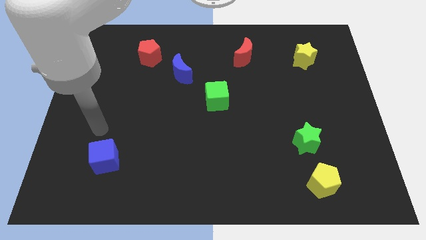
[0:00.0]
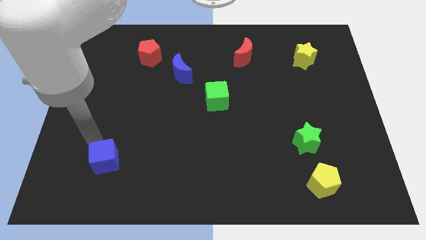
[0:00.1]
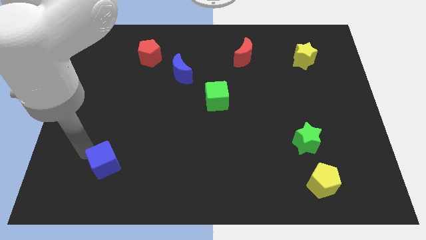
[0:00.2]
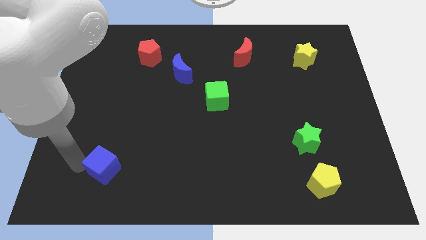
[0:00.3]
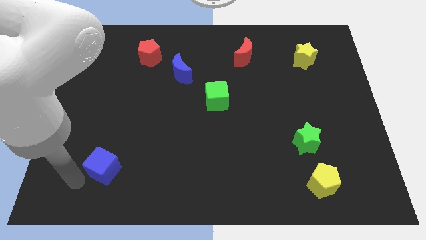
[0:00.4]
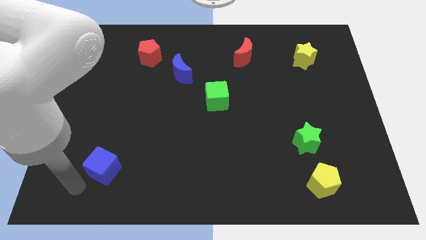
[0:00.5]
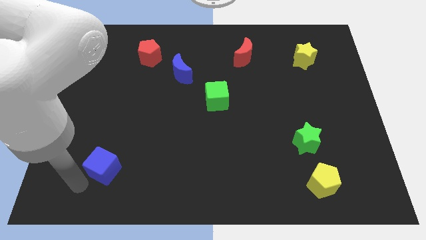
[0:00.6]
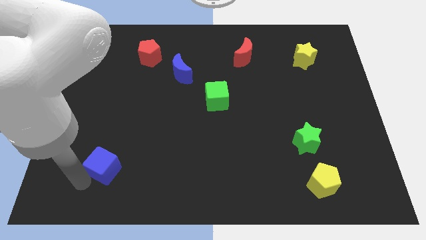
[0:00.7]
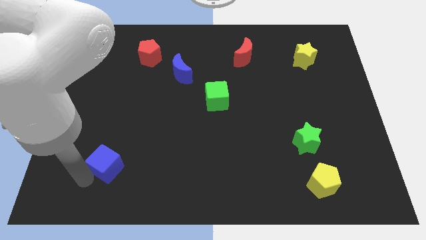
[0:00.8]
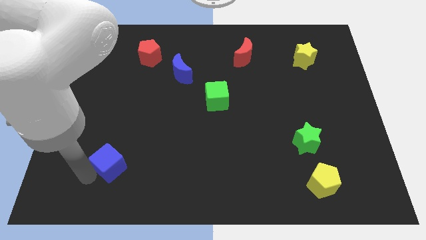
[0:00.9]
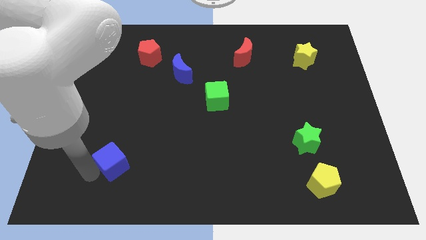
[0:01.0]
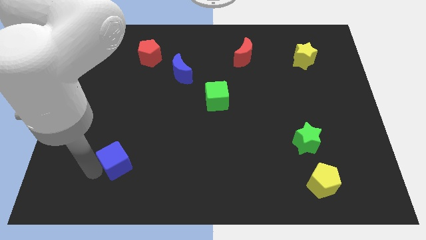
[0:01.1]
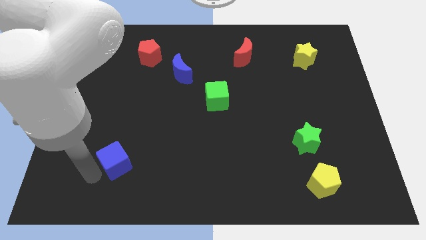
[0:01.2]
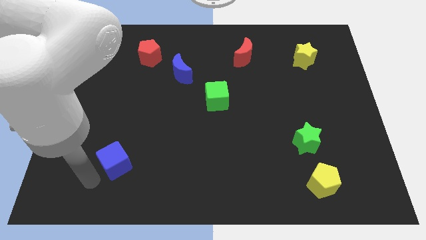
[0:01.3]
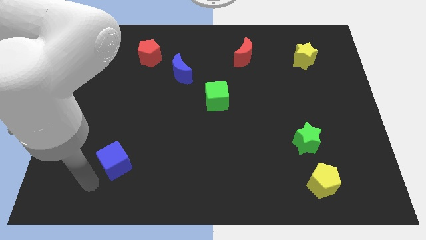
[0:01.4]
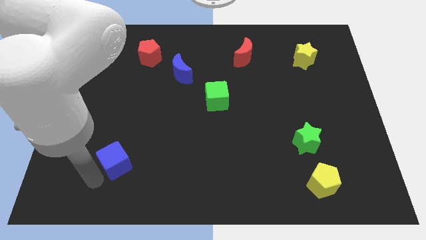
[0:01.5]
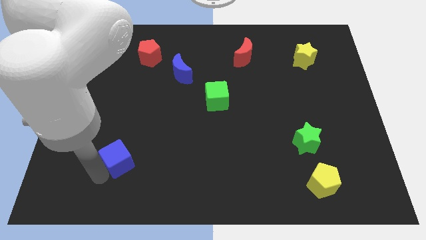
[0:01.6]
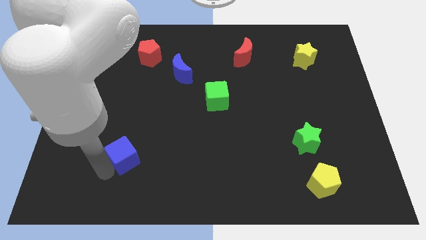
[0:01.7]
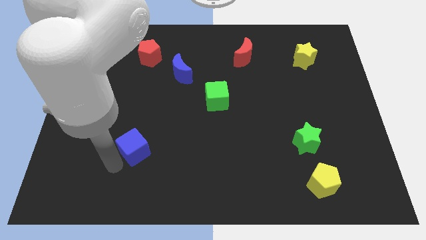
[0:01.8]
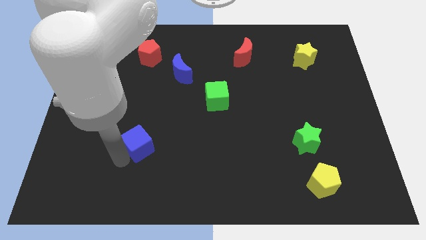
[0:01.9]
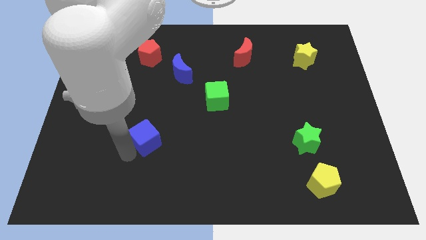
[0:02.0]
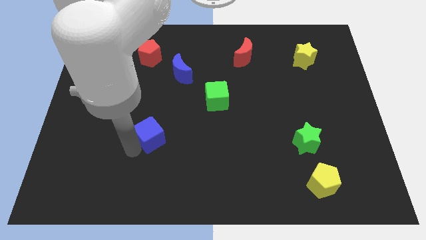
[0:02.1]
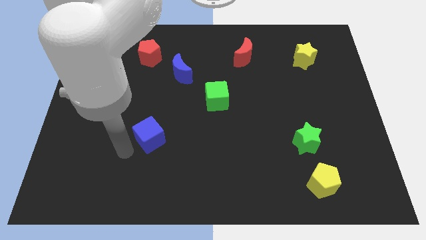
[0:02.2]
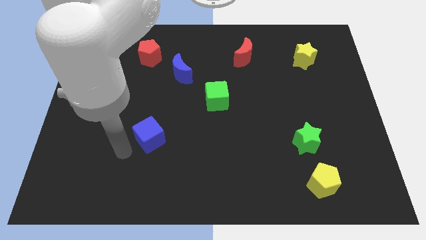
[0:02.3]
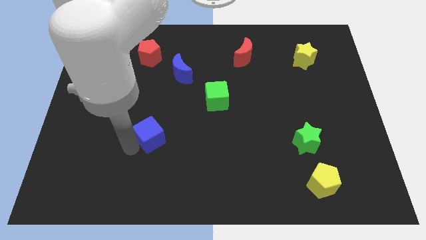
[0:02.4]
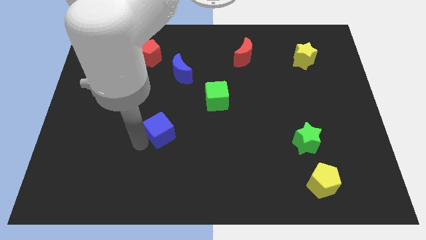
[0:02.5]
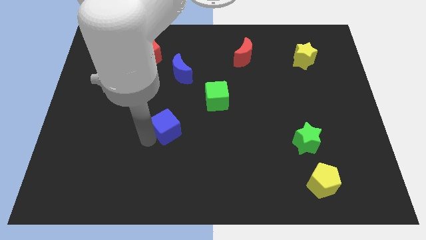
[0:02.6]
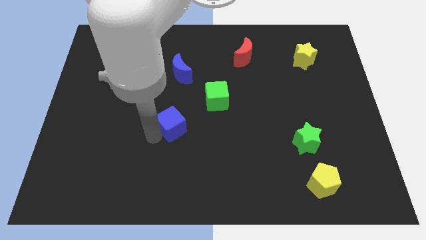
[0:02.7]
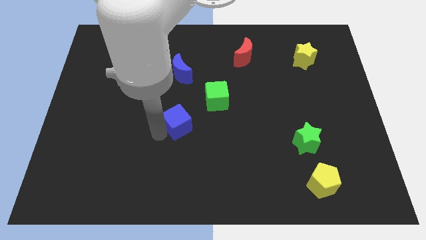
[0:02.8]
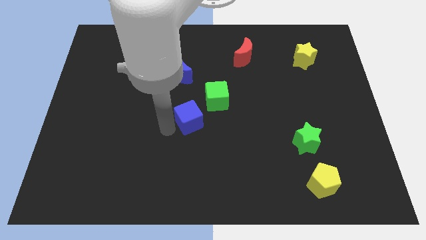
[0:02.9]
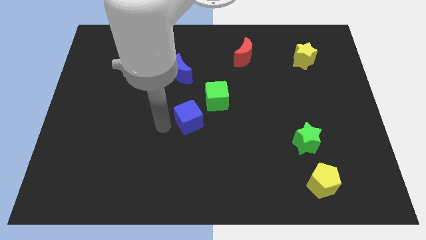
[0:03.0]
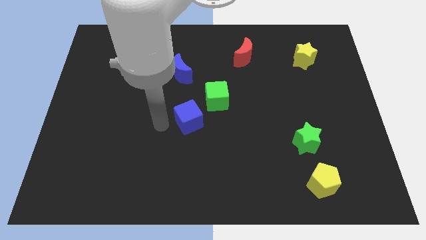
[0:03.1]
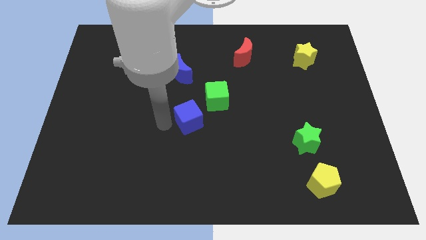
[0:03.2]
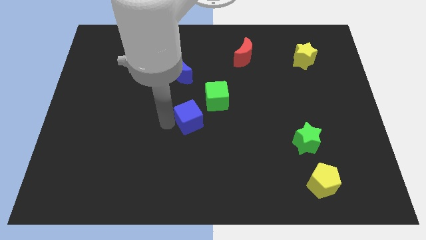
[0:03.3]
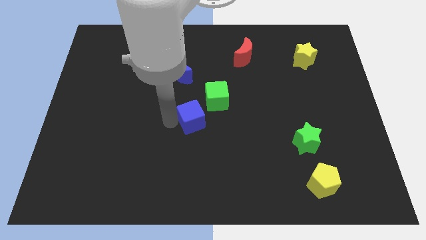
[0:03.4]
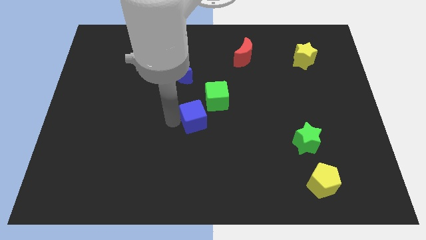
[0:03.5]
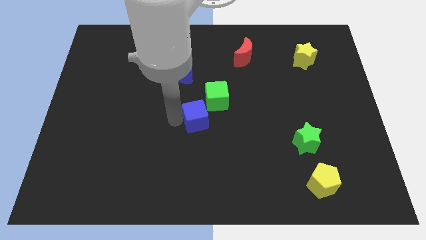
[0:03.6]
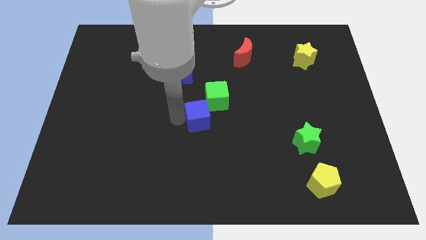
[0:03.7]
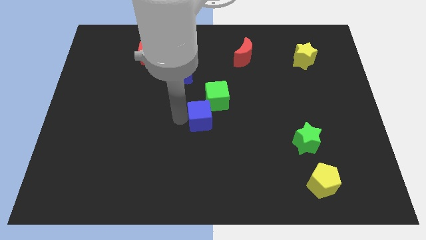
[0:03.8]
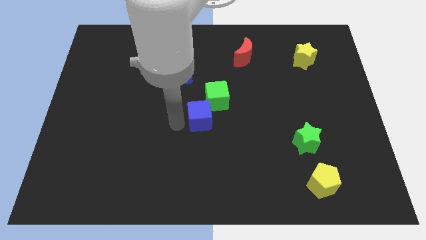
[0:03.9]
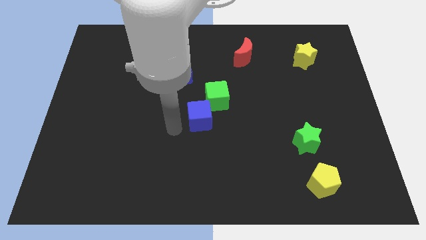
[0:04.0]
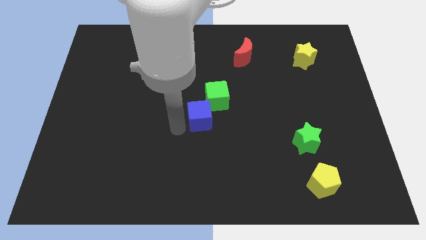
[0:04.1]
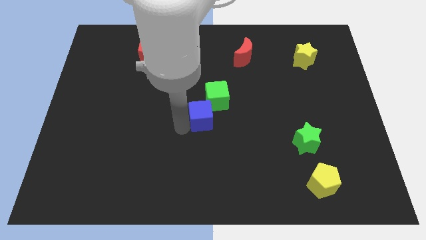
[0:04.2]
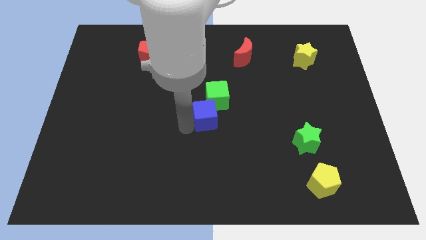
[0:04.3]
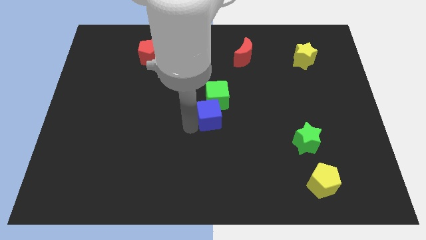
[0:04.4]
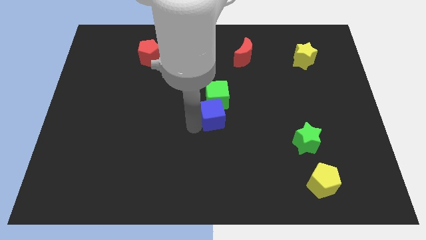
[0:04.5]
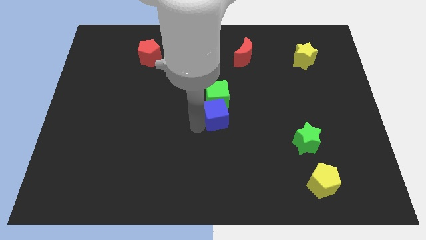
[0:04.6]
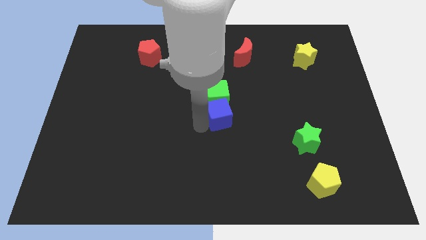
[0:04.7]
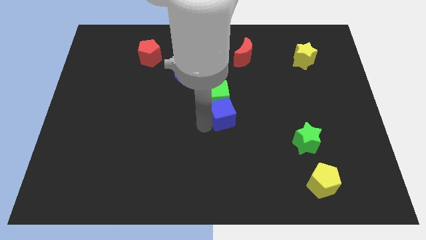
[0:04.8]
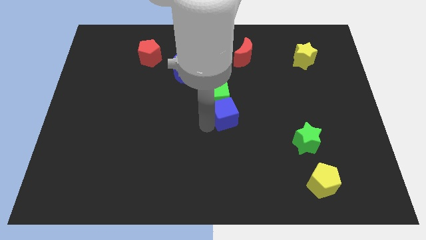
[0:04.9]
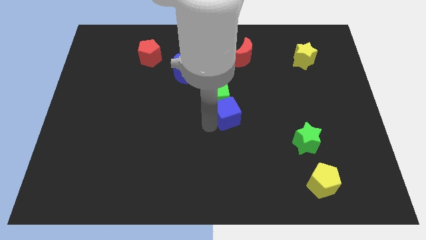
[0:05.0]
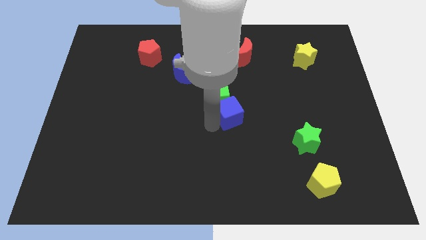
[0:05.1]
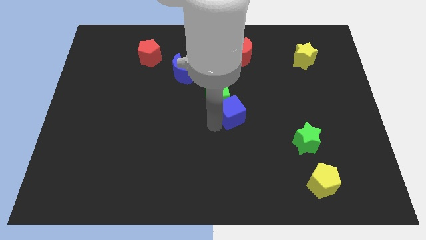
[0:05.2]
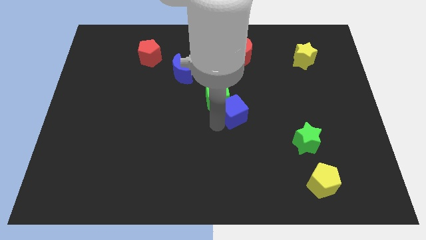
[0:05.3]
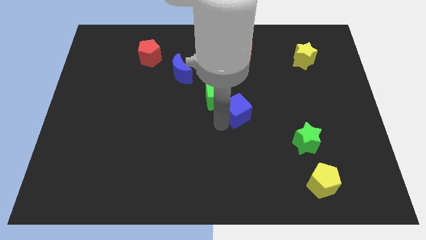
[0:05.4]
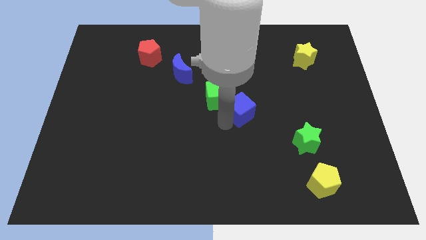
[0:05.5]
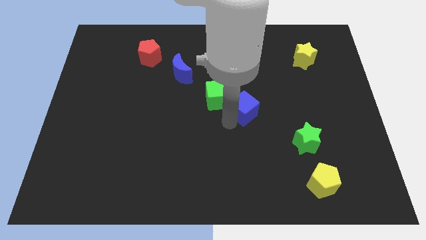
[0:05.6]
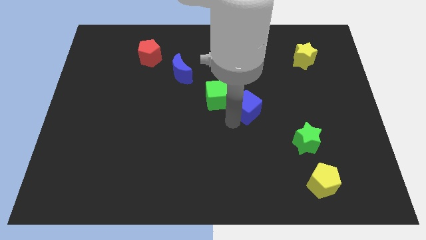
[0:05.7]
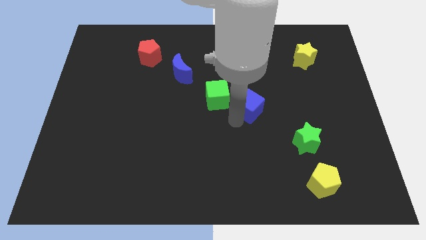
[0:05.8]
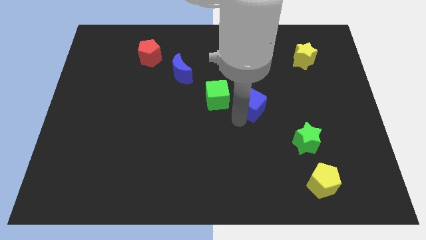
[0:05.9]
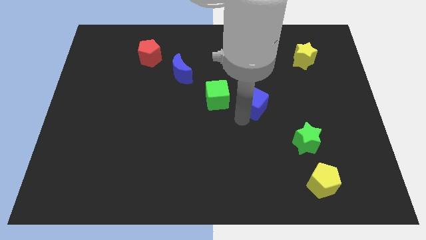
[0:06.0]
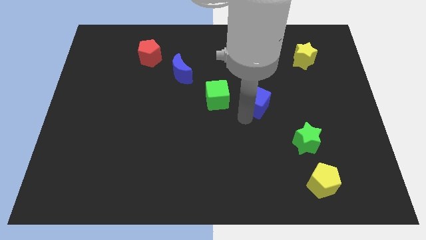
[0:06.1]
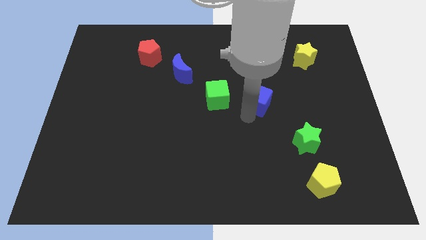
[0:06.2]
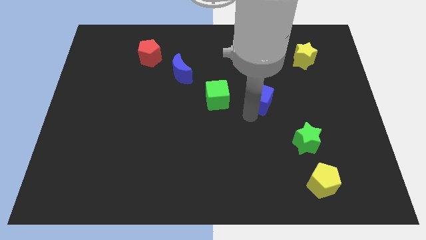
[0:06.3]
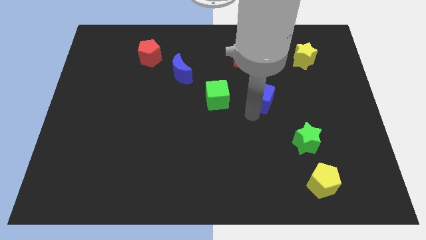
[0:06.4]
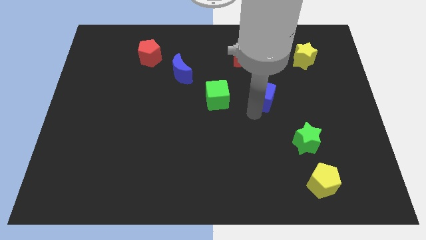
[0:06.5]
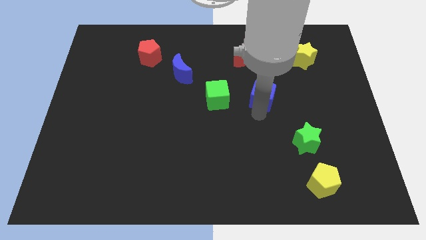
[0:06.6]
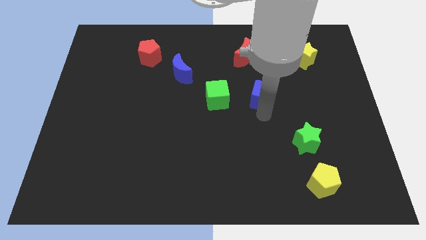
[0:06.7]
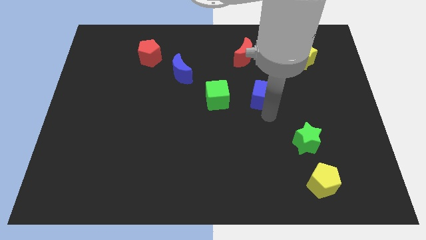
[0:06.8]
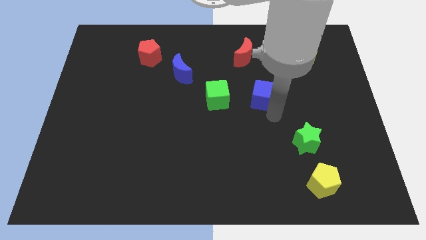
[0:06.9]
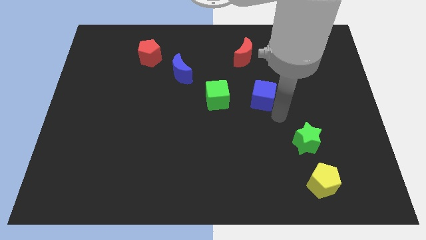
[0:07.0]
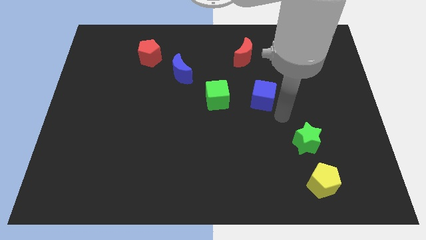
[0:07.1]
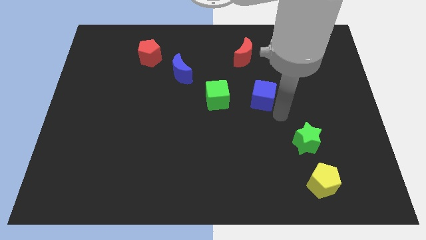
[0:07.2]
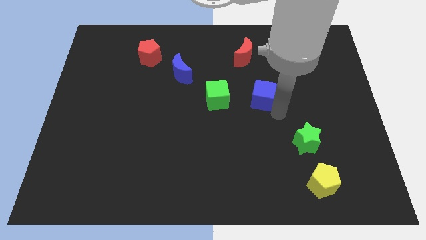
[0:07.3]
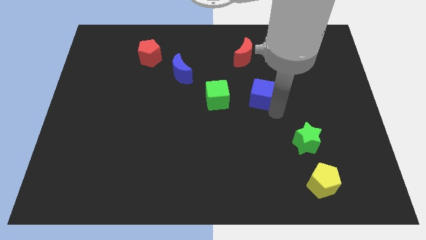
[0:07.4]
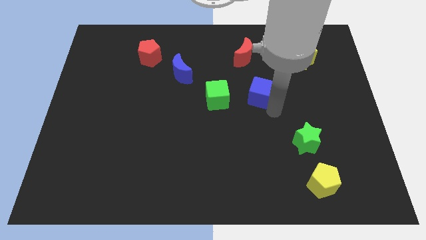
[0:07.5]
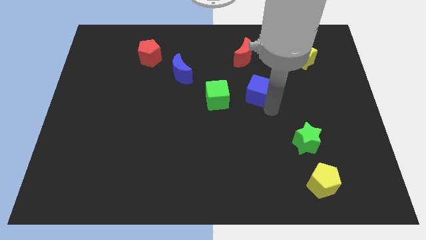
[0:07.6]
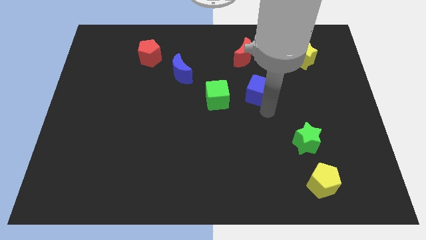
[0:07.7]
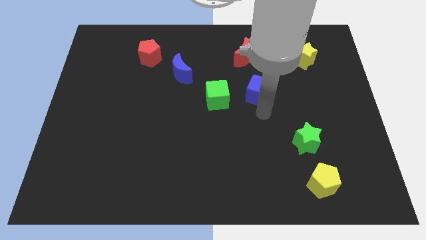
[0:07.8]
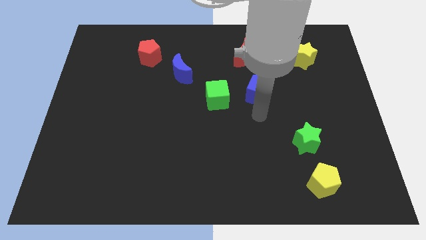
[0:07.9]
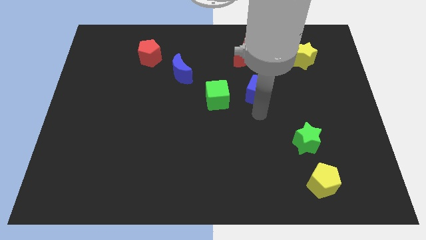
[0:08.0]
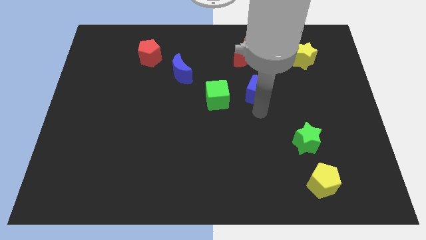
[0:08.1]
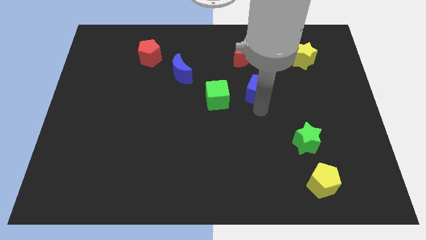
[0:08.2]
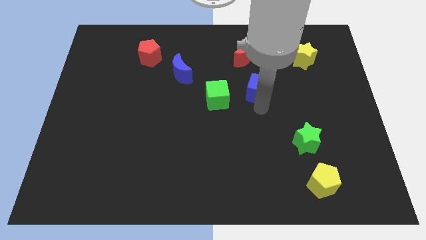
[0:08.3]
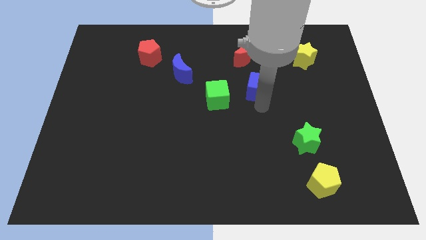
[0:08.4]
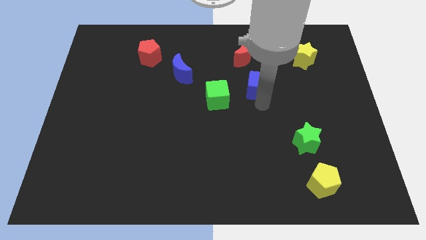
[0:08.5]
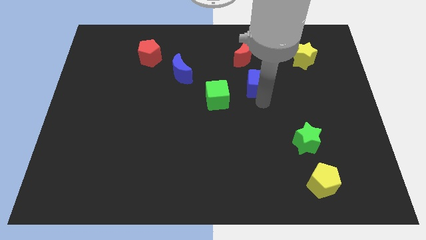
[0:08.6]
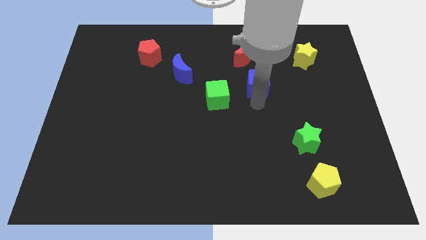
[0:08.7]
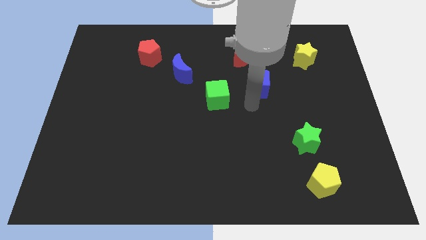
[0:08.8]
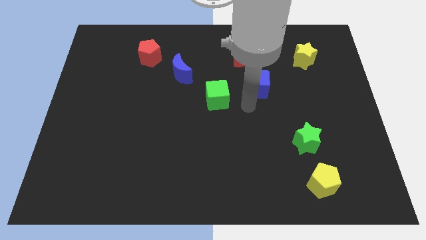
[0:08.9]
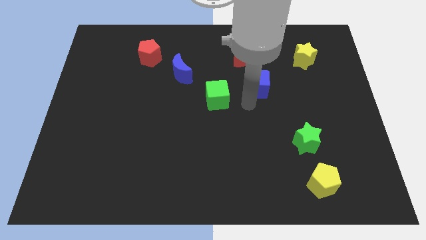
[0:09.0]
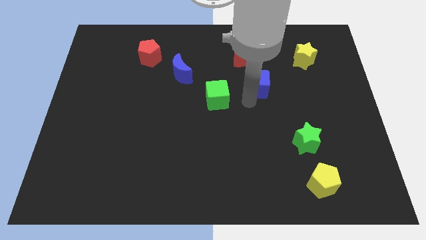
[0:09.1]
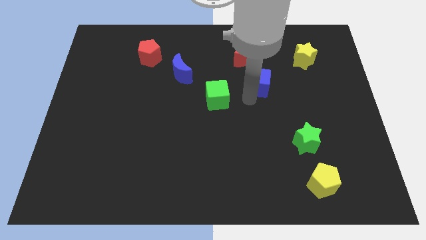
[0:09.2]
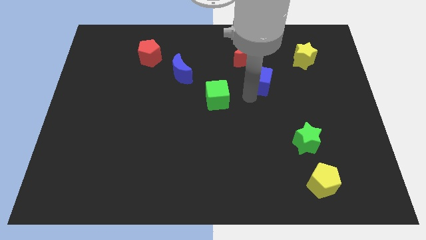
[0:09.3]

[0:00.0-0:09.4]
move the blue cube to the bottom right of the red moon
